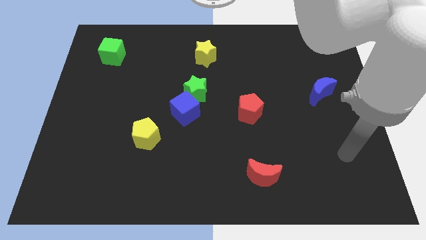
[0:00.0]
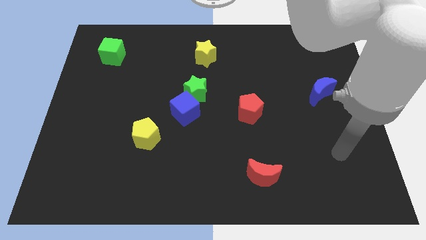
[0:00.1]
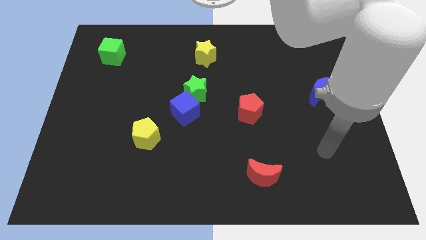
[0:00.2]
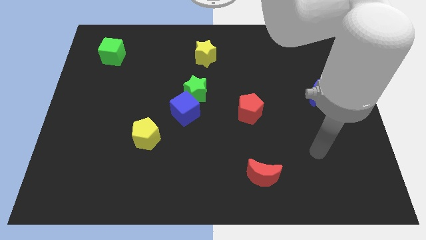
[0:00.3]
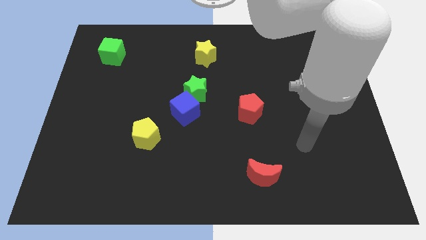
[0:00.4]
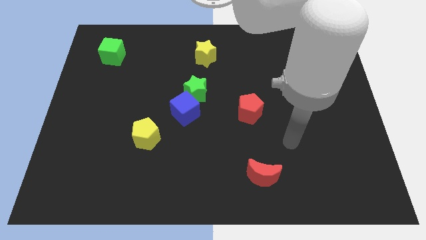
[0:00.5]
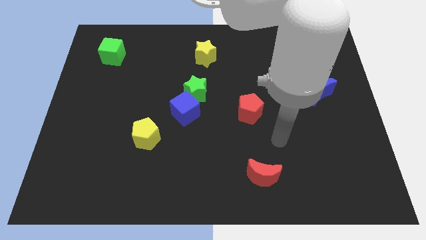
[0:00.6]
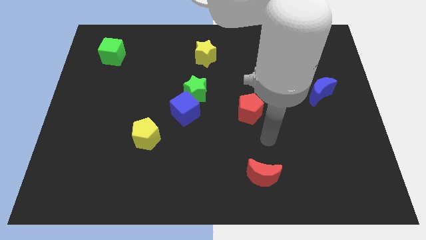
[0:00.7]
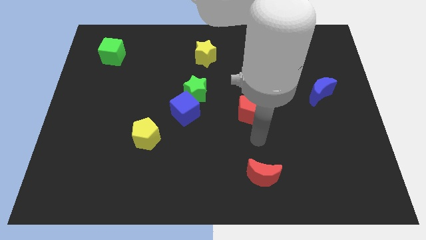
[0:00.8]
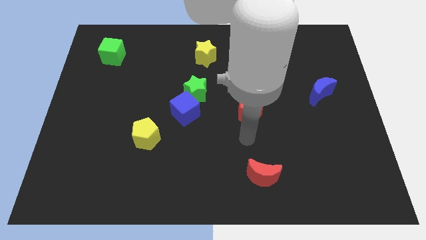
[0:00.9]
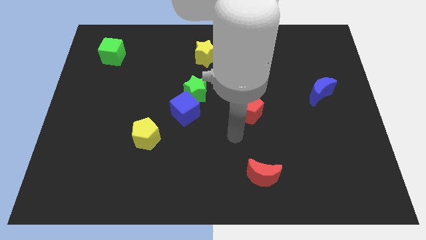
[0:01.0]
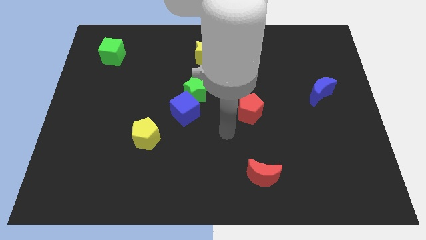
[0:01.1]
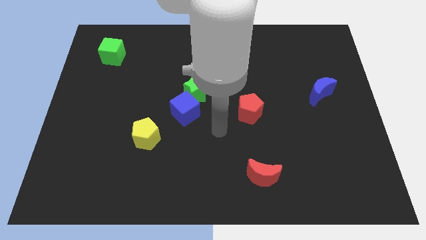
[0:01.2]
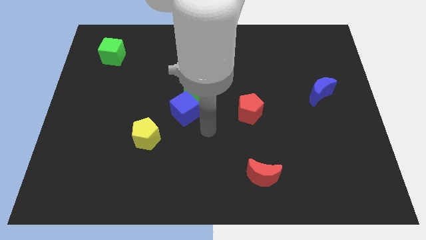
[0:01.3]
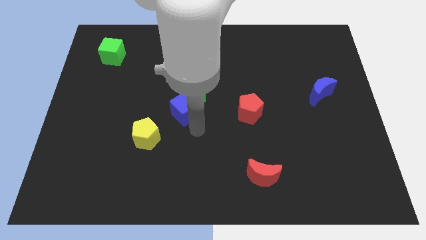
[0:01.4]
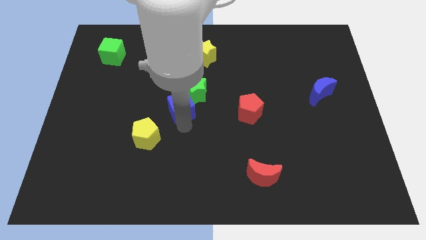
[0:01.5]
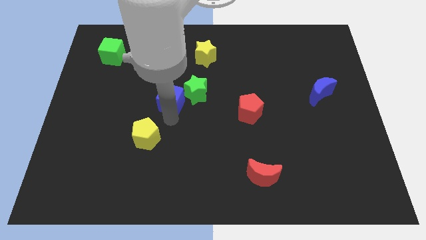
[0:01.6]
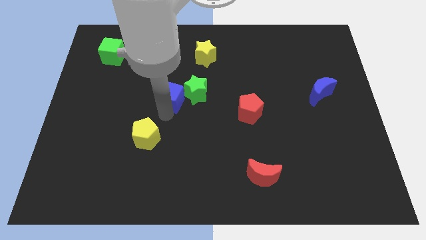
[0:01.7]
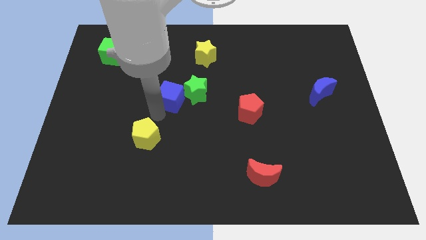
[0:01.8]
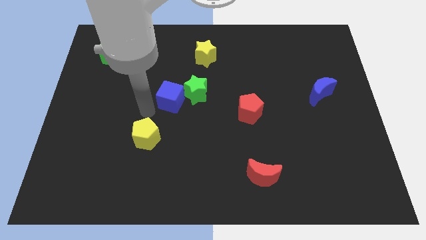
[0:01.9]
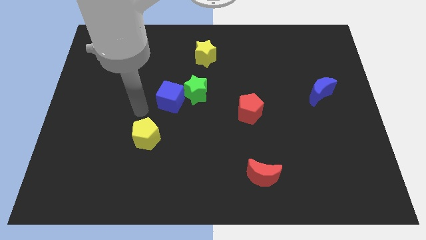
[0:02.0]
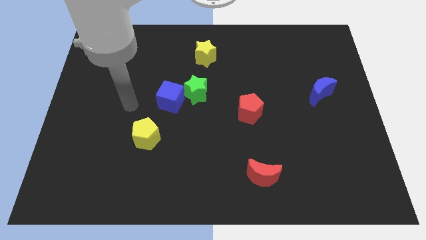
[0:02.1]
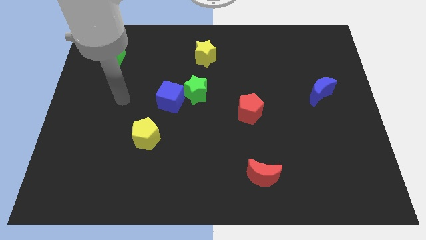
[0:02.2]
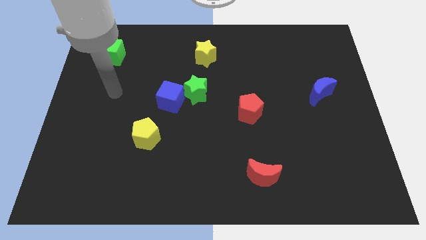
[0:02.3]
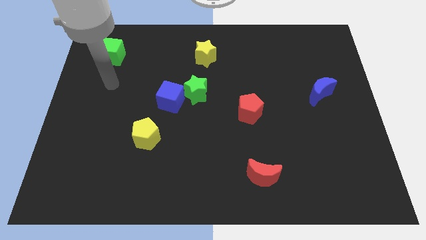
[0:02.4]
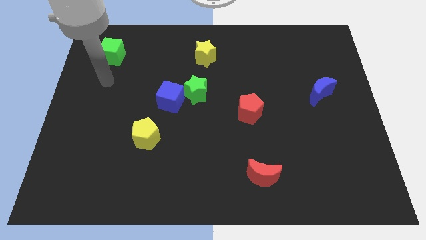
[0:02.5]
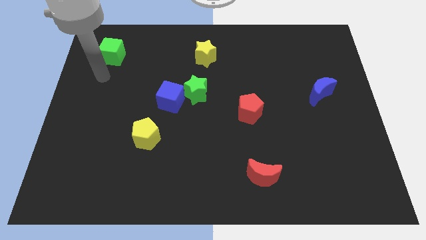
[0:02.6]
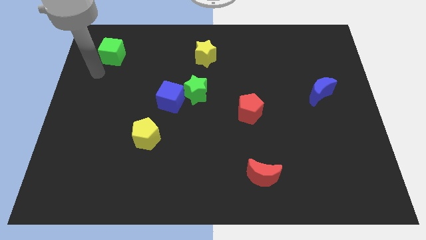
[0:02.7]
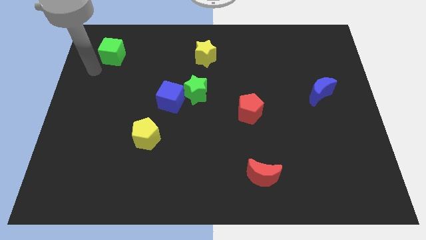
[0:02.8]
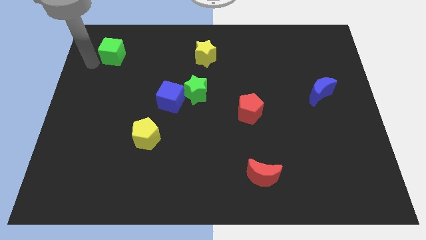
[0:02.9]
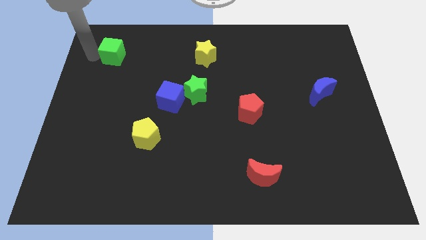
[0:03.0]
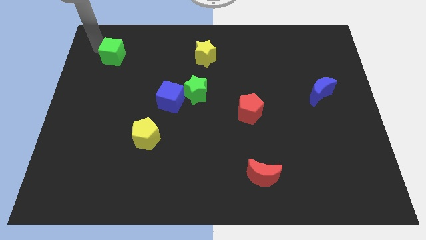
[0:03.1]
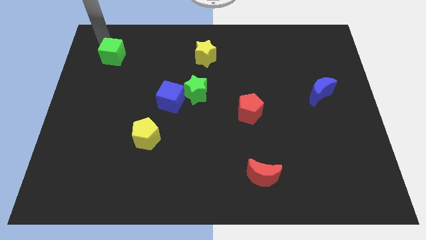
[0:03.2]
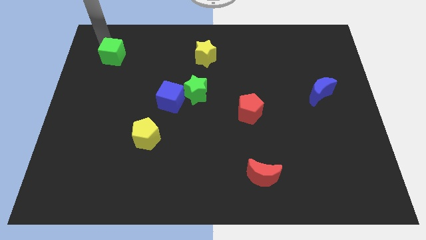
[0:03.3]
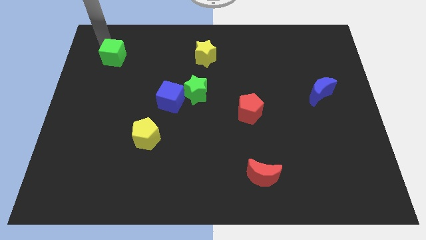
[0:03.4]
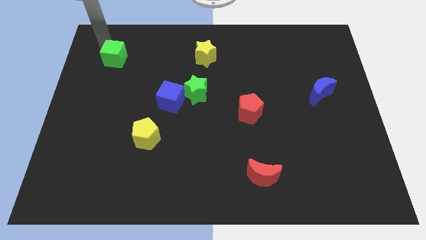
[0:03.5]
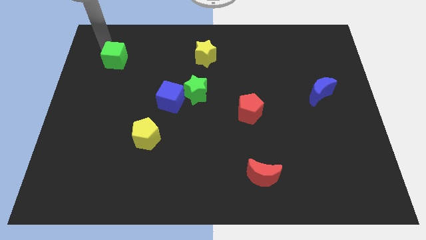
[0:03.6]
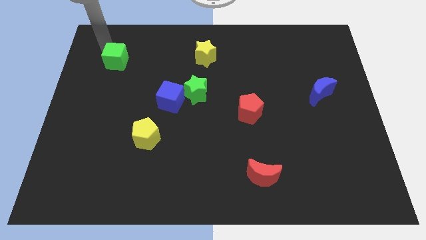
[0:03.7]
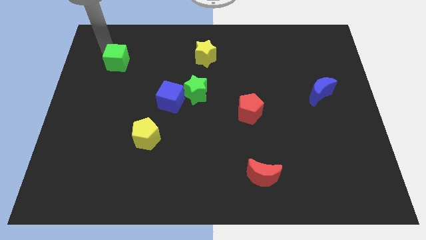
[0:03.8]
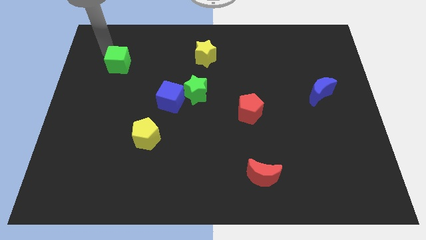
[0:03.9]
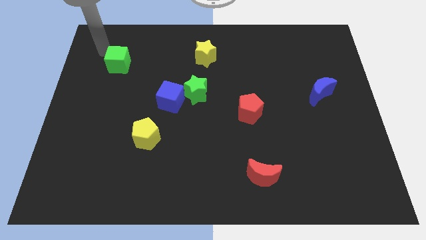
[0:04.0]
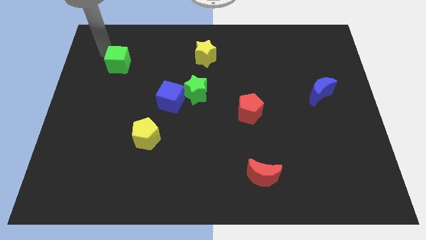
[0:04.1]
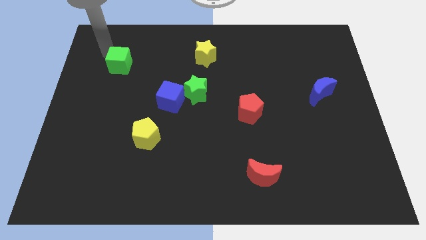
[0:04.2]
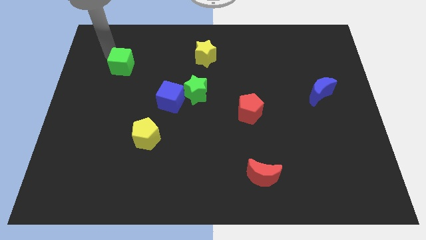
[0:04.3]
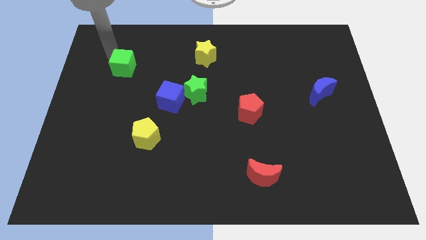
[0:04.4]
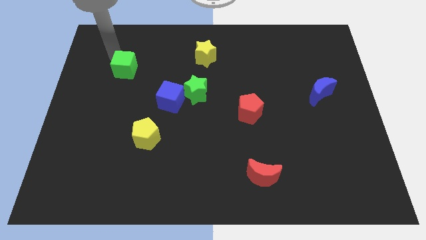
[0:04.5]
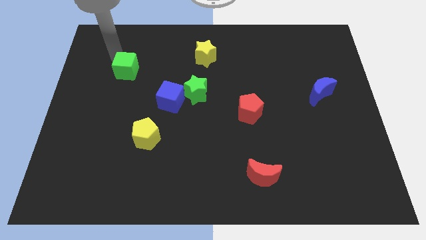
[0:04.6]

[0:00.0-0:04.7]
move the green cube downwards and to the right a little

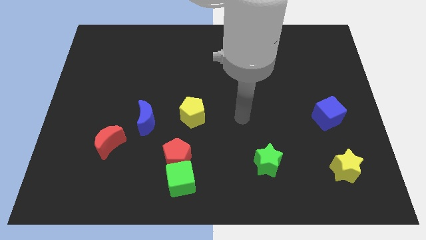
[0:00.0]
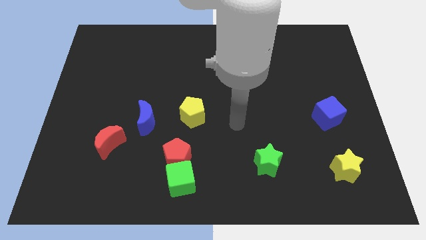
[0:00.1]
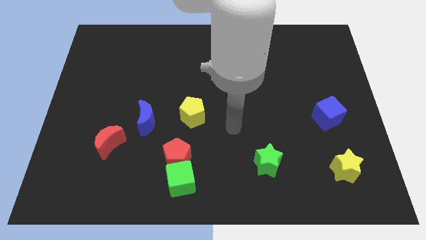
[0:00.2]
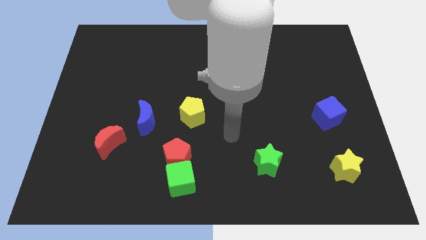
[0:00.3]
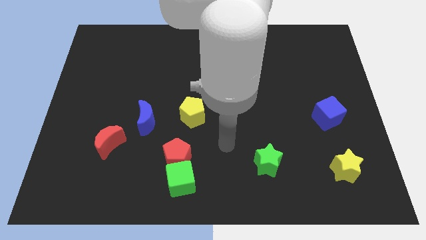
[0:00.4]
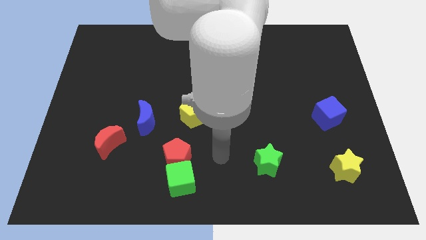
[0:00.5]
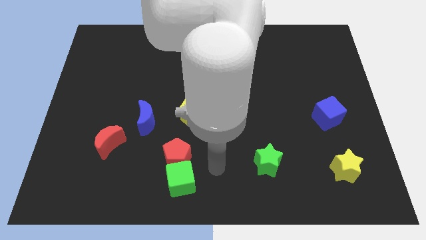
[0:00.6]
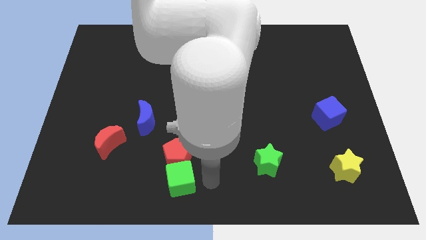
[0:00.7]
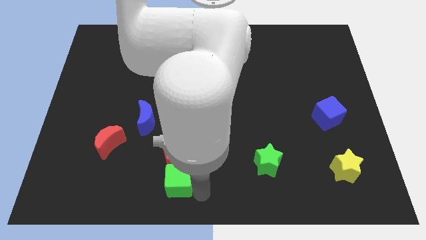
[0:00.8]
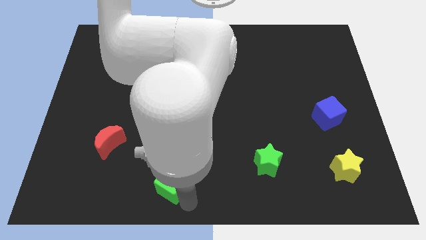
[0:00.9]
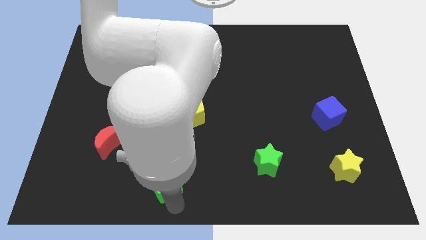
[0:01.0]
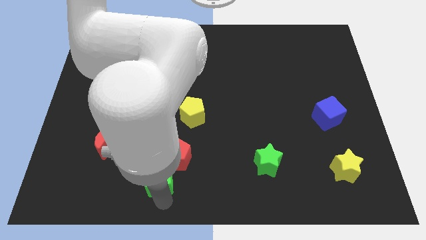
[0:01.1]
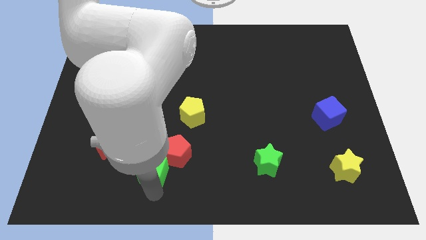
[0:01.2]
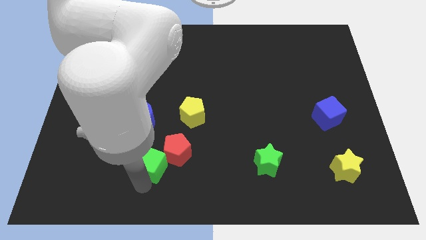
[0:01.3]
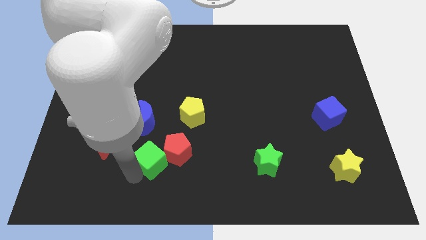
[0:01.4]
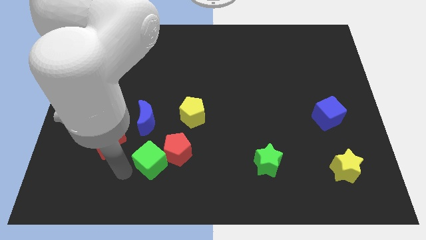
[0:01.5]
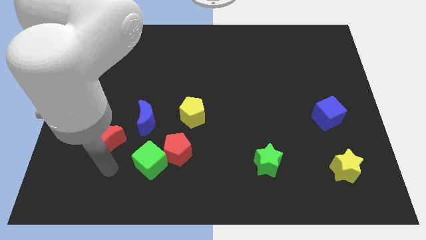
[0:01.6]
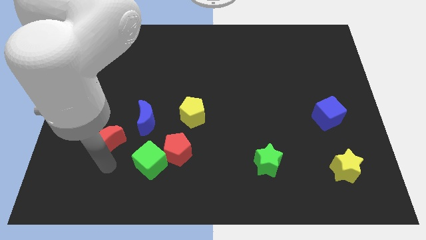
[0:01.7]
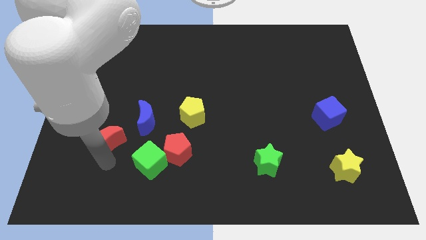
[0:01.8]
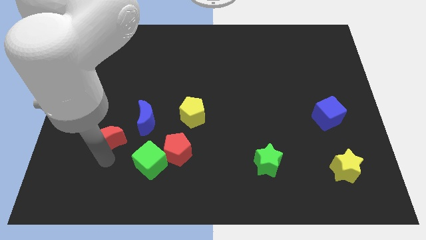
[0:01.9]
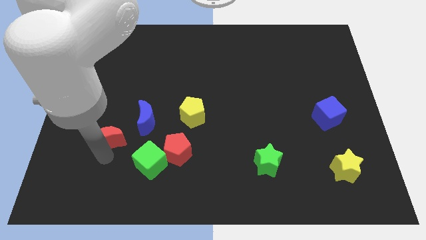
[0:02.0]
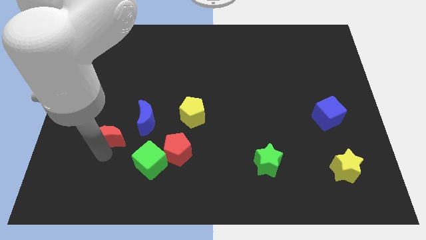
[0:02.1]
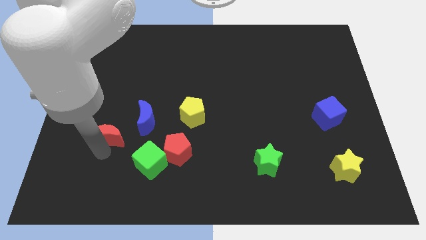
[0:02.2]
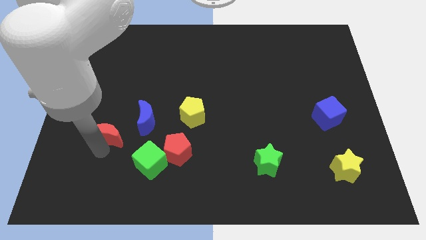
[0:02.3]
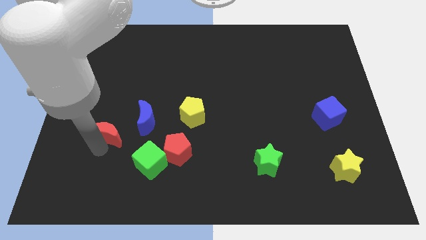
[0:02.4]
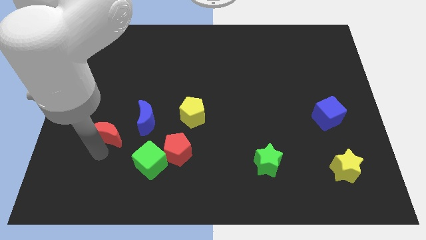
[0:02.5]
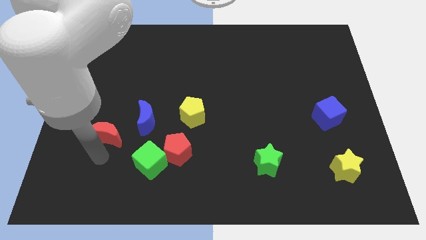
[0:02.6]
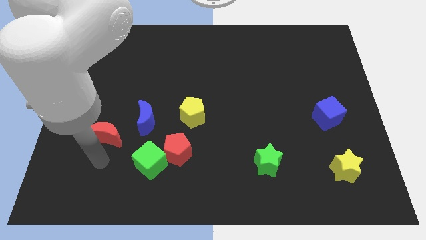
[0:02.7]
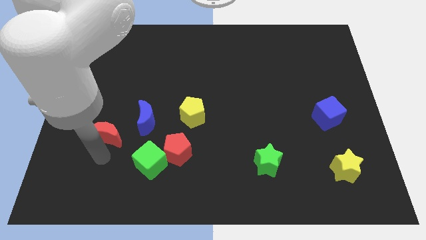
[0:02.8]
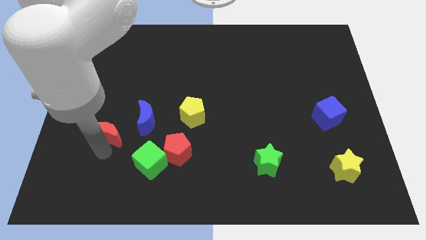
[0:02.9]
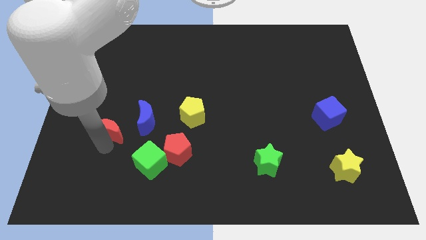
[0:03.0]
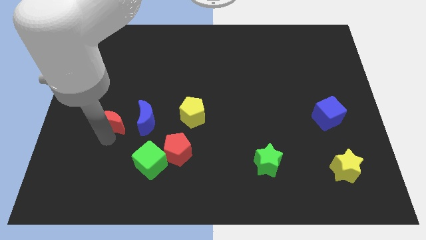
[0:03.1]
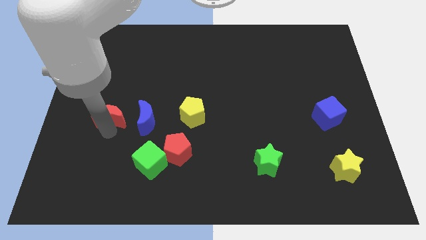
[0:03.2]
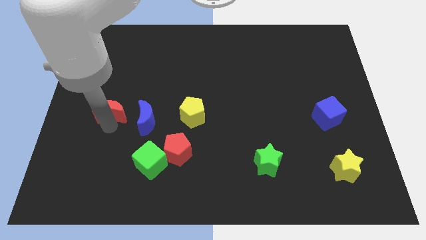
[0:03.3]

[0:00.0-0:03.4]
slightly slide the red moon upwards

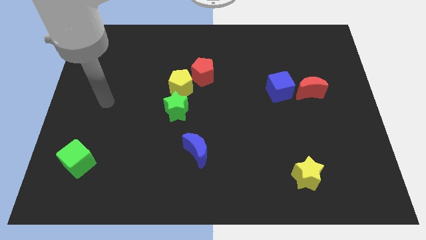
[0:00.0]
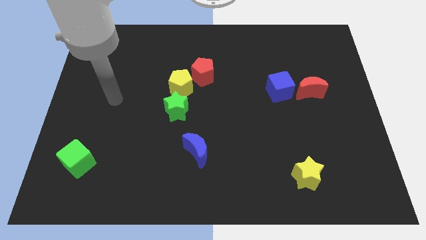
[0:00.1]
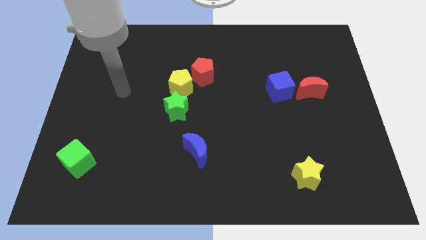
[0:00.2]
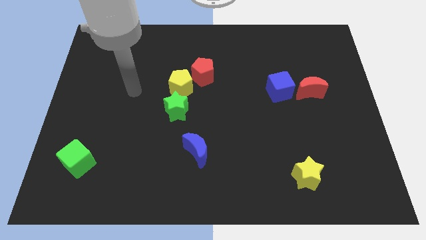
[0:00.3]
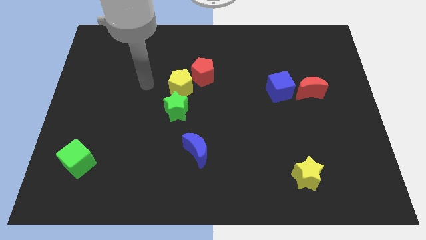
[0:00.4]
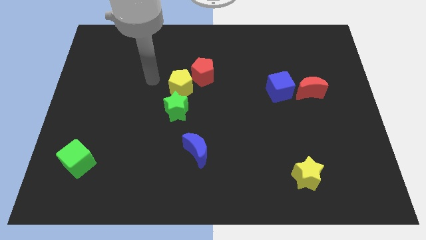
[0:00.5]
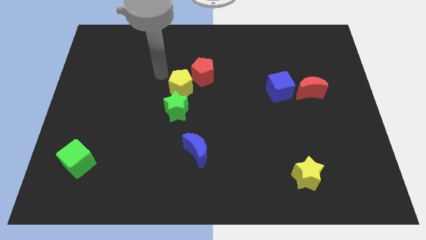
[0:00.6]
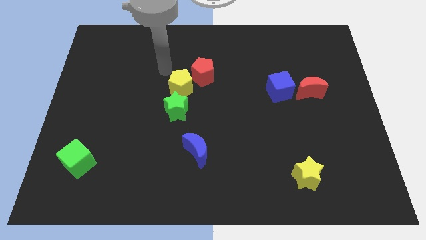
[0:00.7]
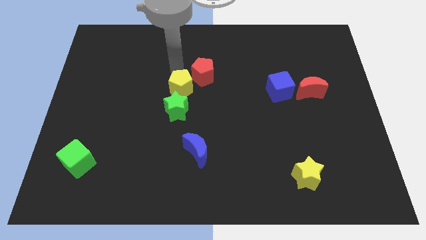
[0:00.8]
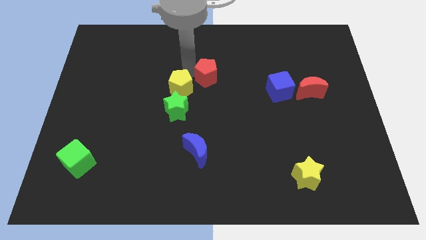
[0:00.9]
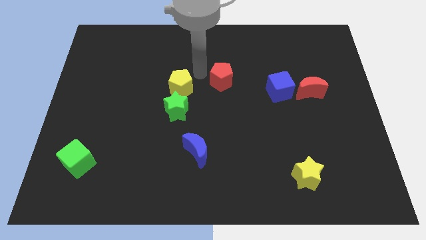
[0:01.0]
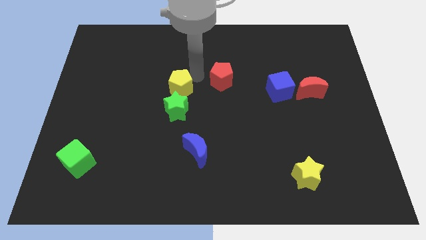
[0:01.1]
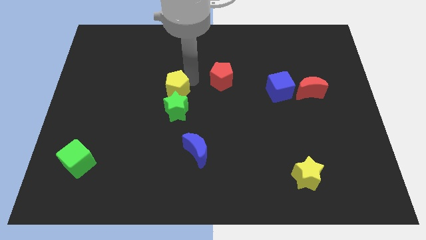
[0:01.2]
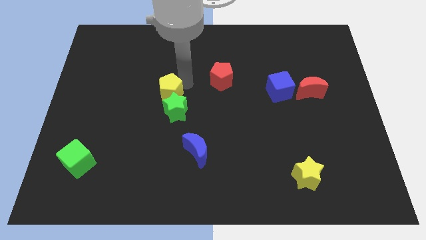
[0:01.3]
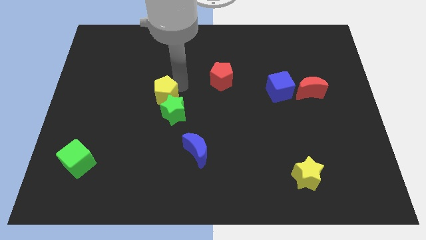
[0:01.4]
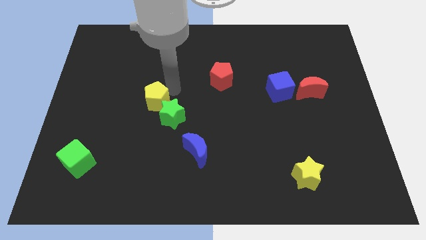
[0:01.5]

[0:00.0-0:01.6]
move the yellow pentagon a little down and then left
